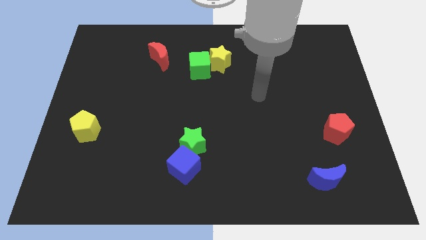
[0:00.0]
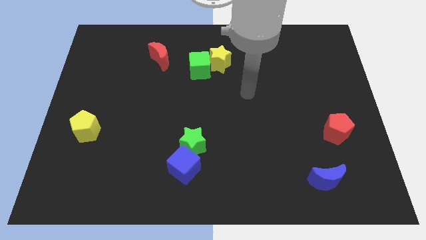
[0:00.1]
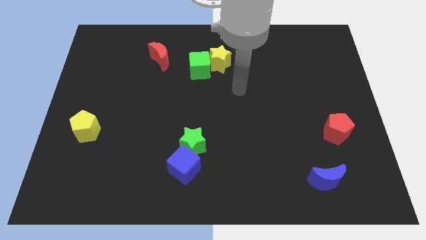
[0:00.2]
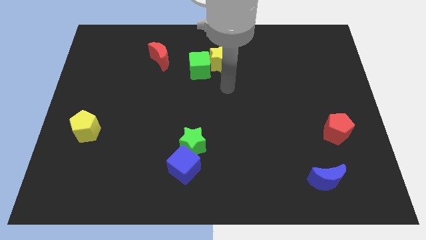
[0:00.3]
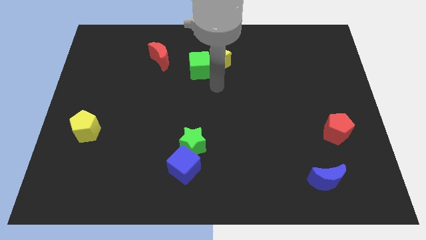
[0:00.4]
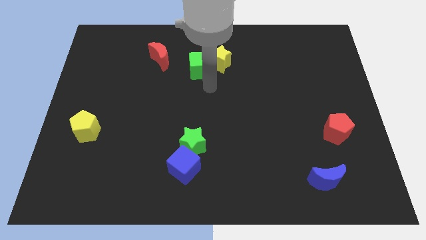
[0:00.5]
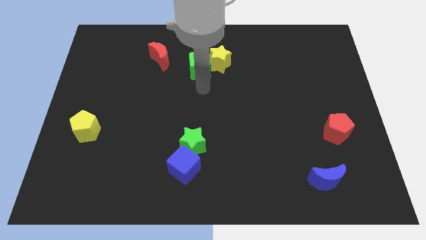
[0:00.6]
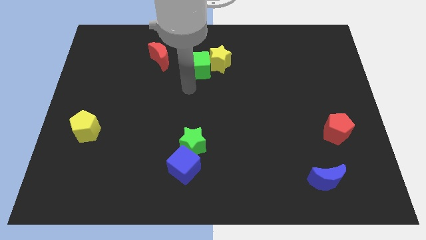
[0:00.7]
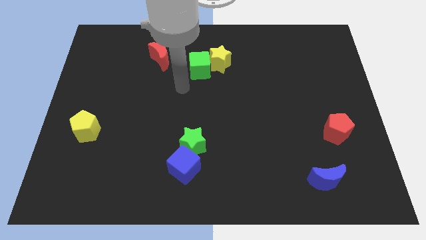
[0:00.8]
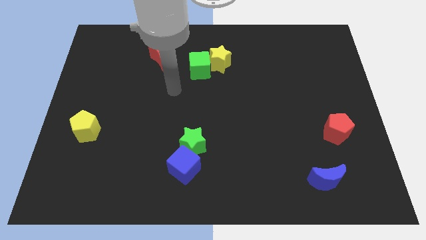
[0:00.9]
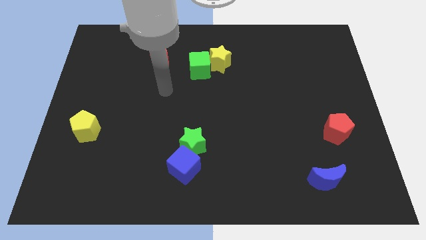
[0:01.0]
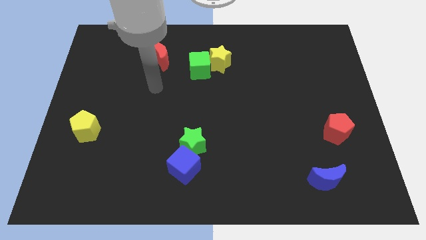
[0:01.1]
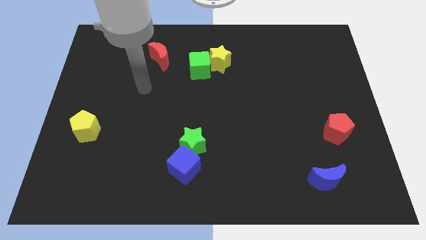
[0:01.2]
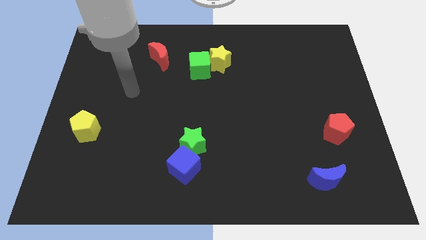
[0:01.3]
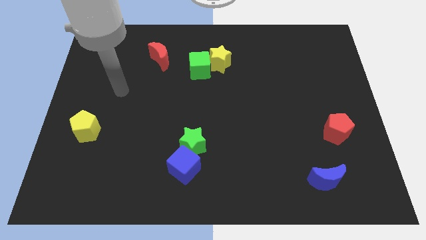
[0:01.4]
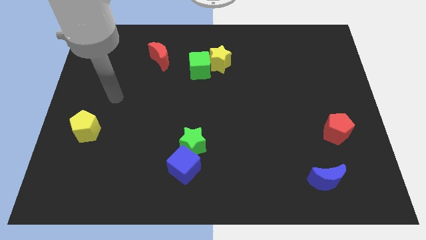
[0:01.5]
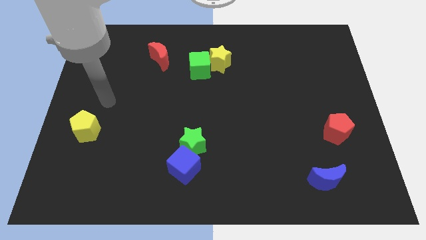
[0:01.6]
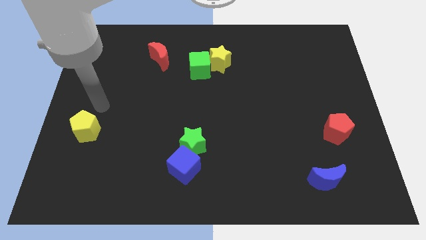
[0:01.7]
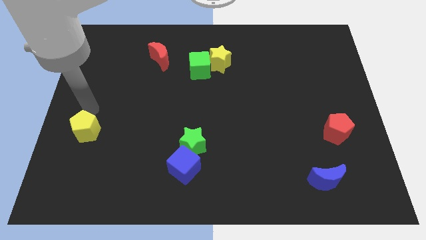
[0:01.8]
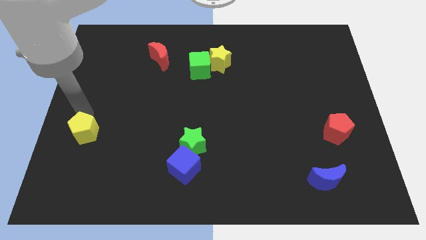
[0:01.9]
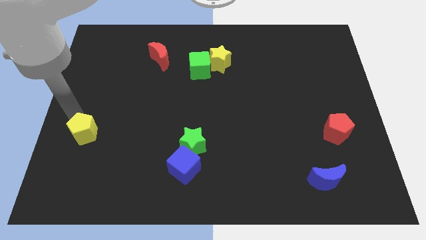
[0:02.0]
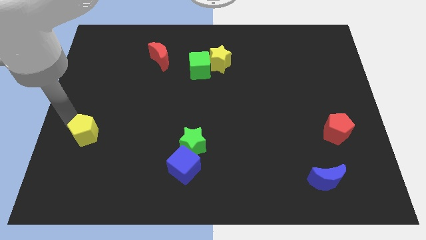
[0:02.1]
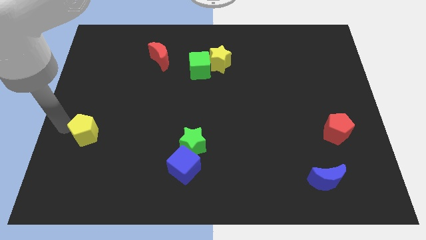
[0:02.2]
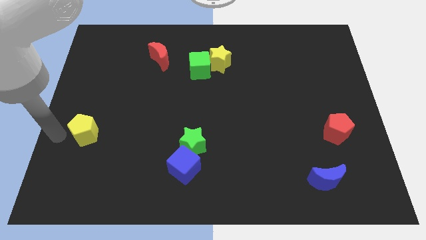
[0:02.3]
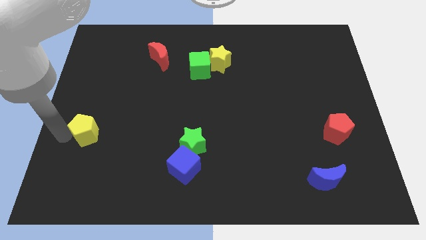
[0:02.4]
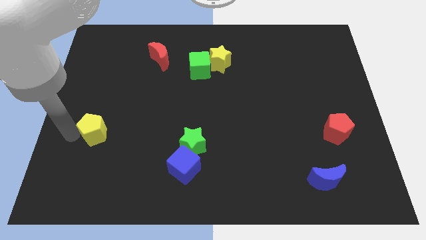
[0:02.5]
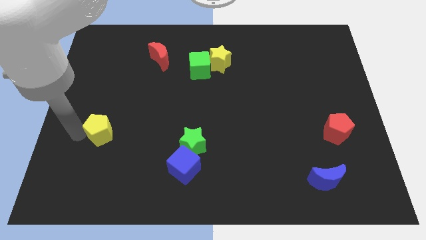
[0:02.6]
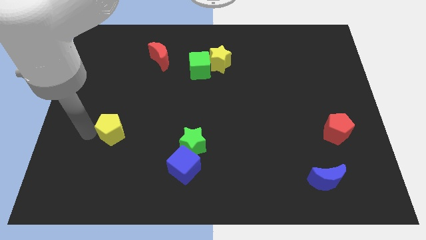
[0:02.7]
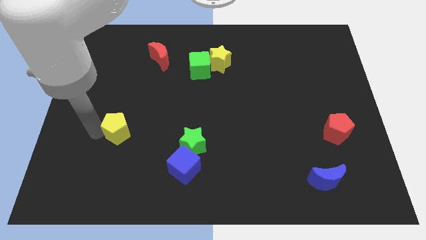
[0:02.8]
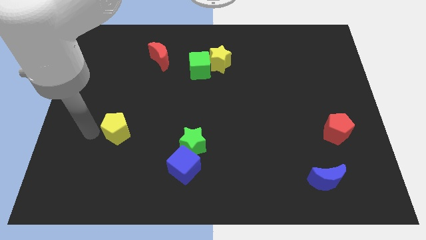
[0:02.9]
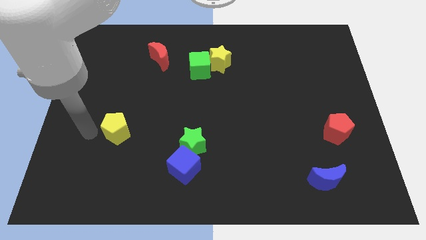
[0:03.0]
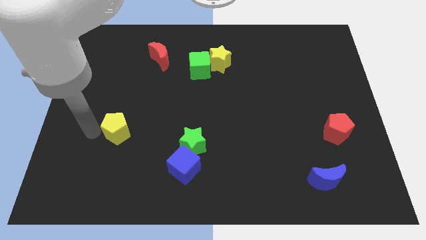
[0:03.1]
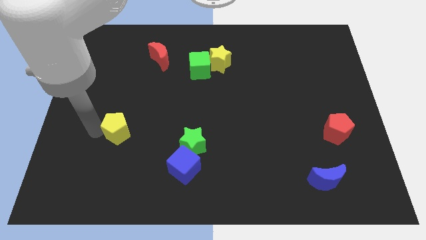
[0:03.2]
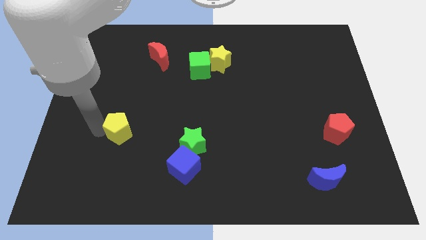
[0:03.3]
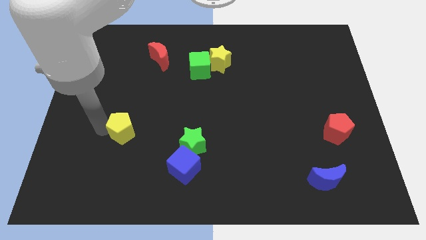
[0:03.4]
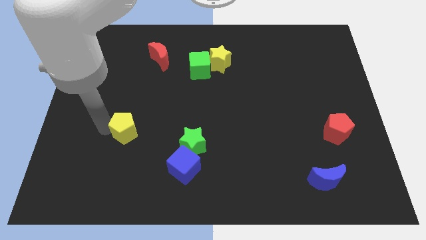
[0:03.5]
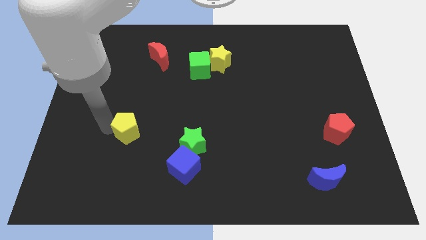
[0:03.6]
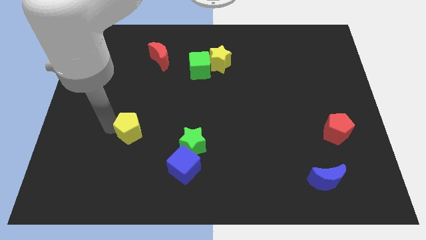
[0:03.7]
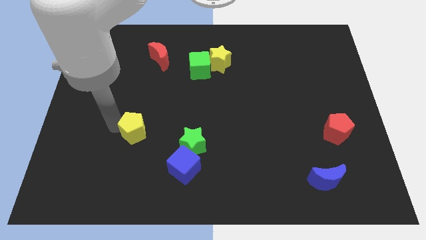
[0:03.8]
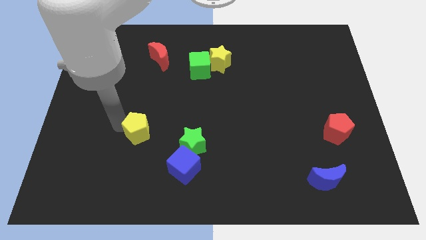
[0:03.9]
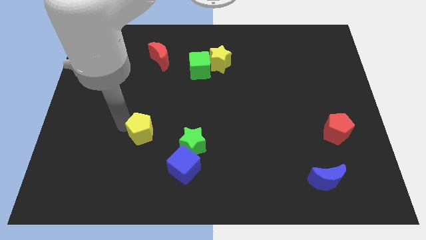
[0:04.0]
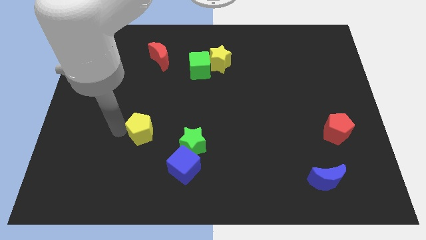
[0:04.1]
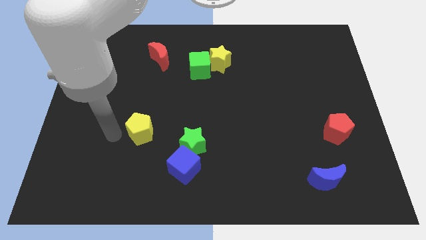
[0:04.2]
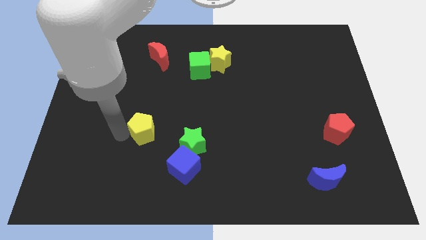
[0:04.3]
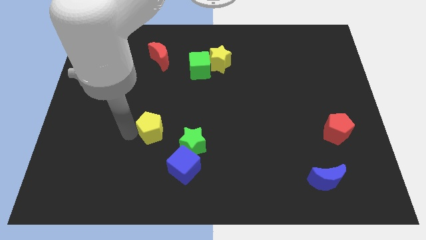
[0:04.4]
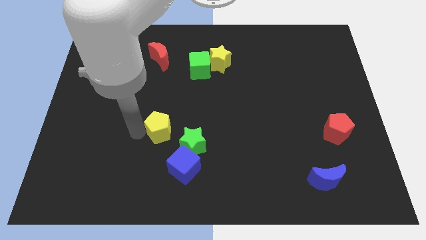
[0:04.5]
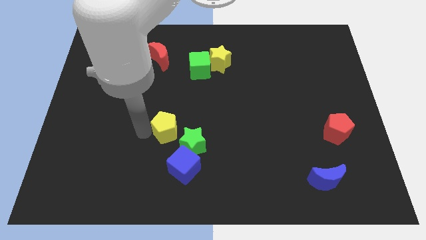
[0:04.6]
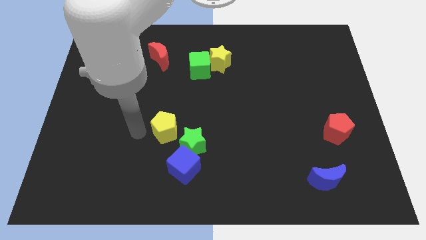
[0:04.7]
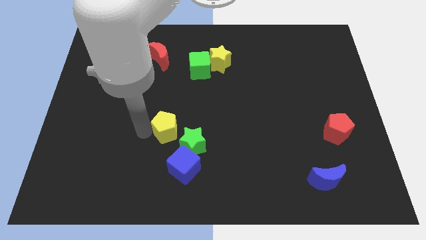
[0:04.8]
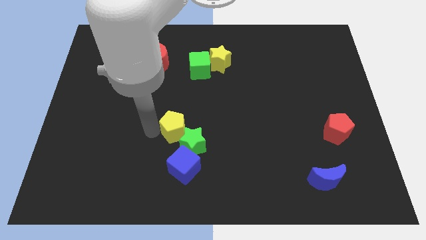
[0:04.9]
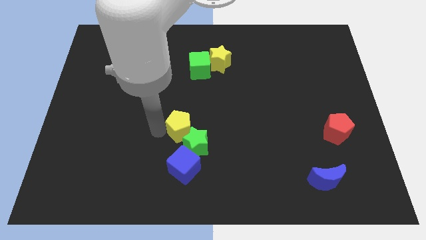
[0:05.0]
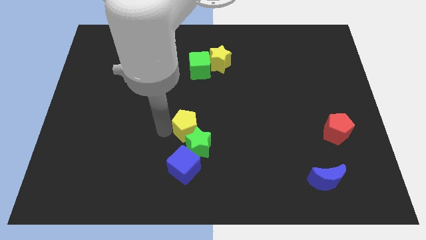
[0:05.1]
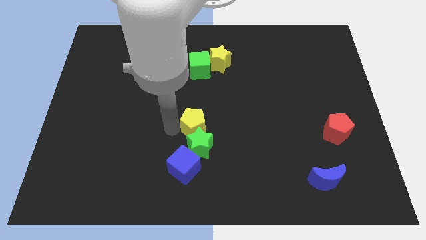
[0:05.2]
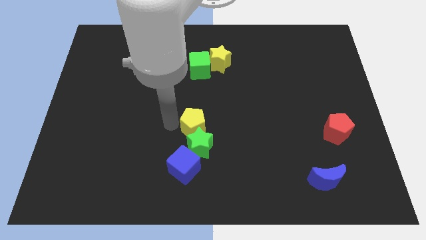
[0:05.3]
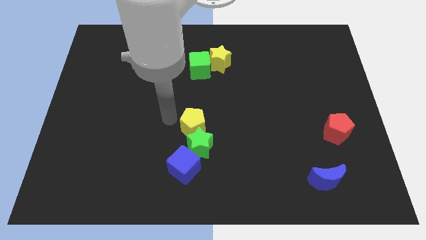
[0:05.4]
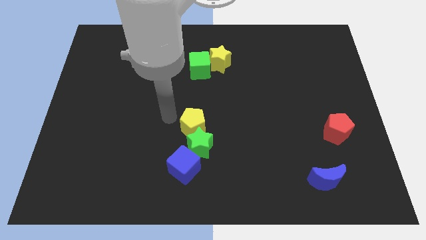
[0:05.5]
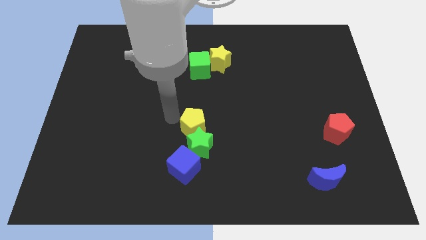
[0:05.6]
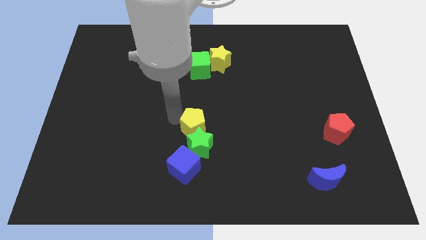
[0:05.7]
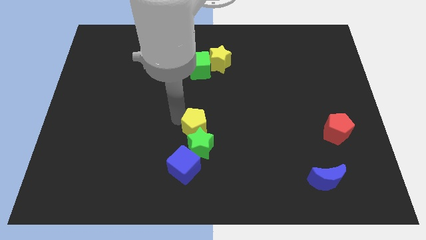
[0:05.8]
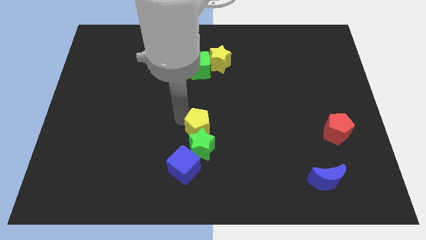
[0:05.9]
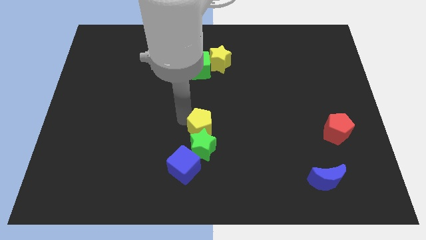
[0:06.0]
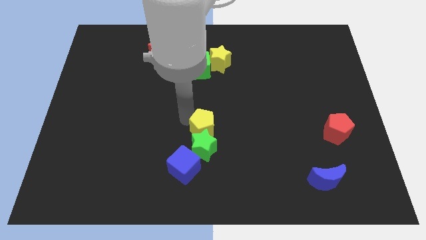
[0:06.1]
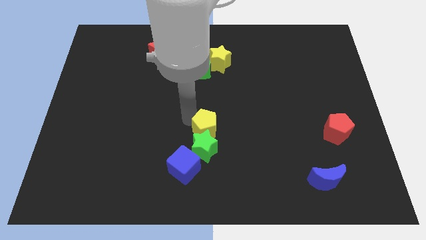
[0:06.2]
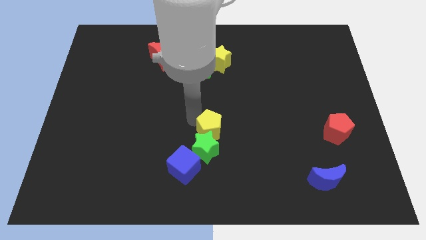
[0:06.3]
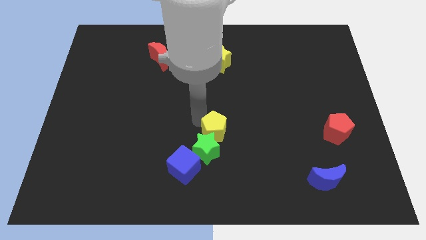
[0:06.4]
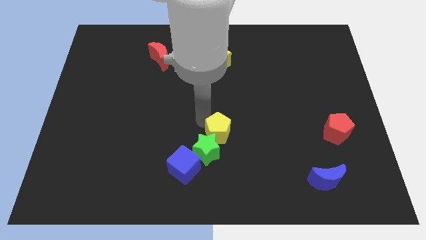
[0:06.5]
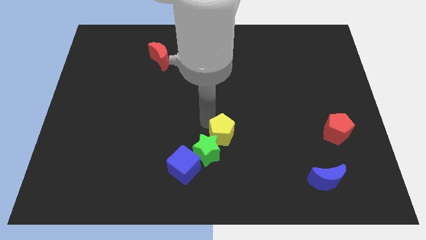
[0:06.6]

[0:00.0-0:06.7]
push the yellow pentagon right of the green star

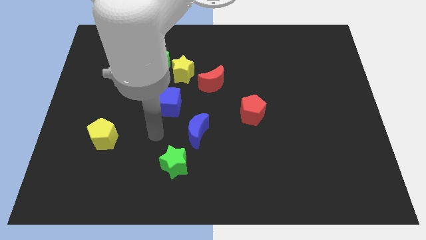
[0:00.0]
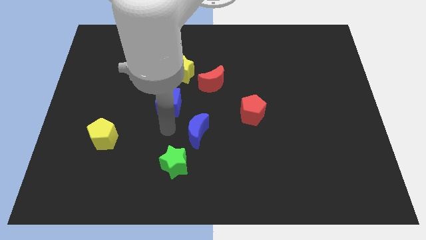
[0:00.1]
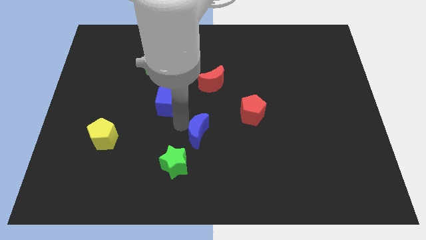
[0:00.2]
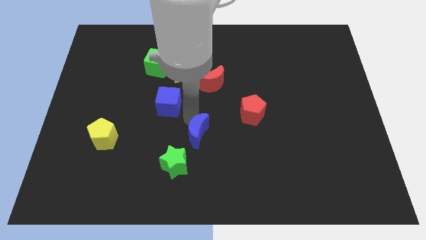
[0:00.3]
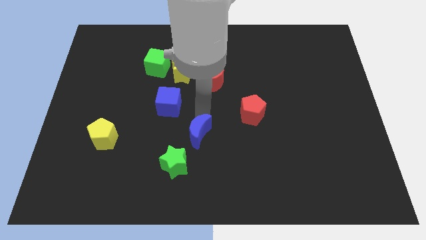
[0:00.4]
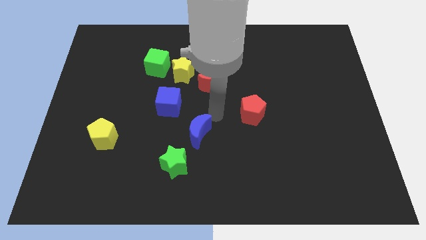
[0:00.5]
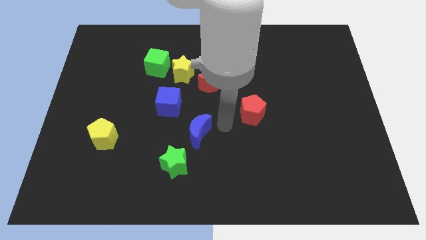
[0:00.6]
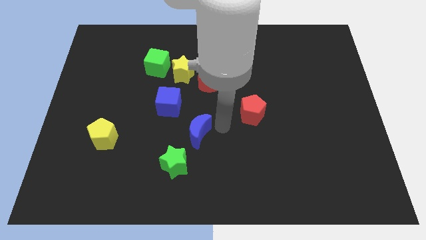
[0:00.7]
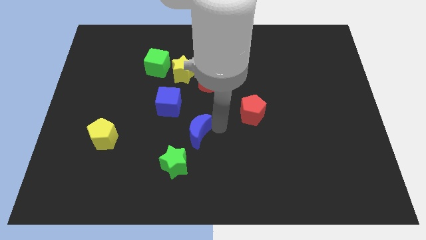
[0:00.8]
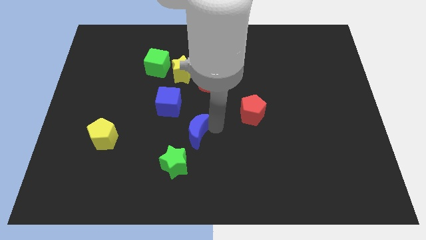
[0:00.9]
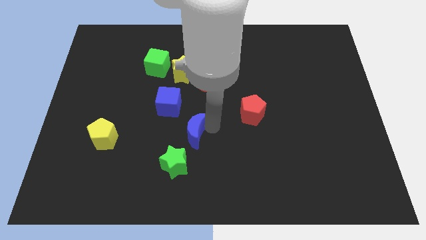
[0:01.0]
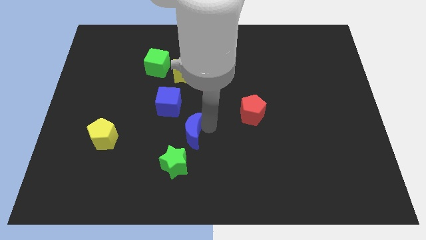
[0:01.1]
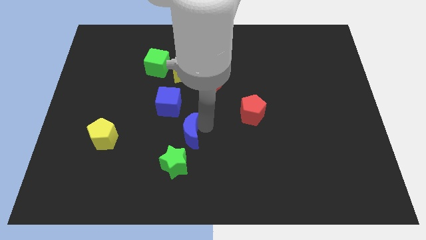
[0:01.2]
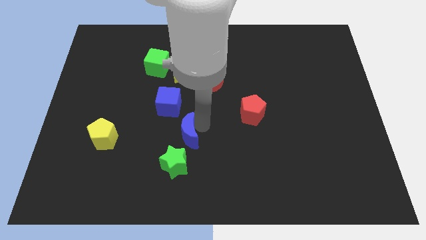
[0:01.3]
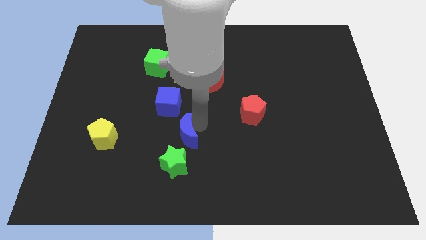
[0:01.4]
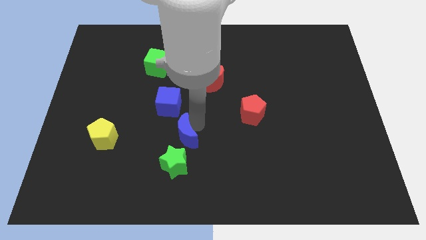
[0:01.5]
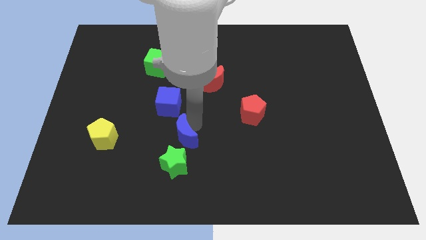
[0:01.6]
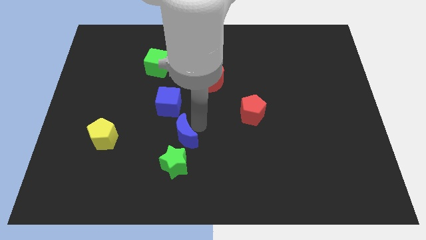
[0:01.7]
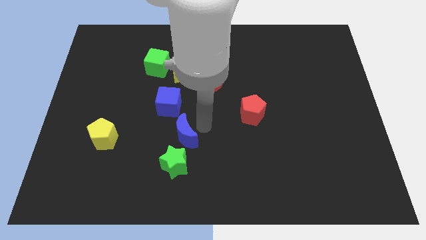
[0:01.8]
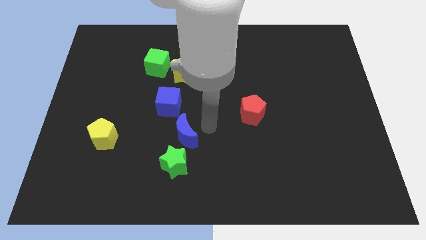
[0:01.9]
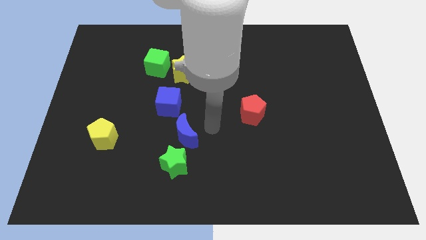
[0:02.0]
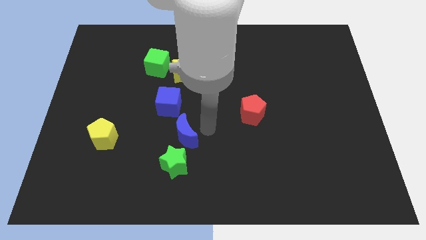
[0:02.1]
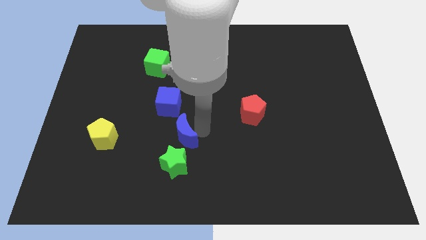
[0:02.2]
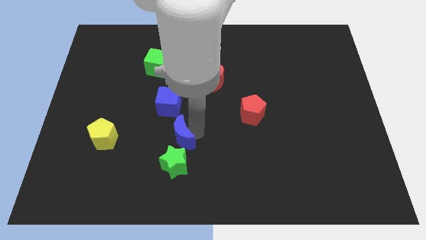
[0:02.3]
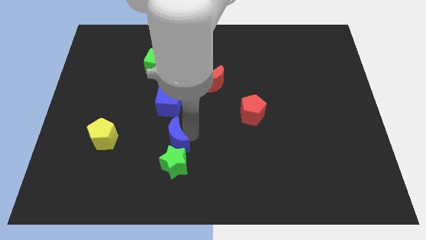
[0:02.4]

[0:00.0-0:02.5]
move the blue moon to the top left side of the green star
